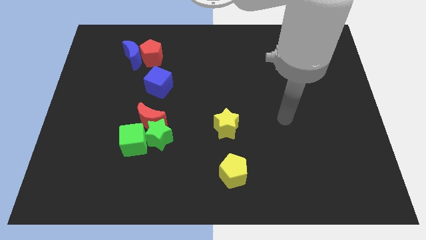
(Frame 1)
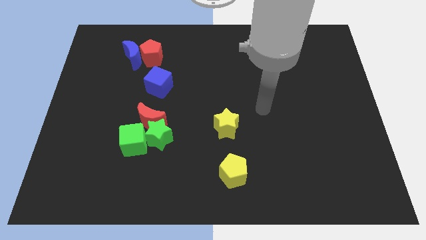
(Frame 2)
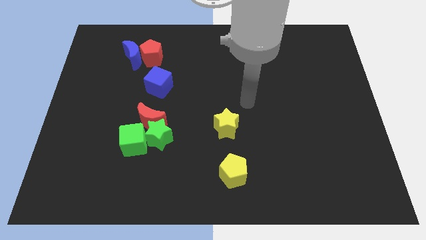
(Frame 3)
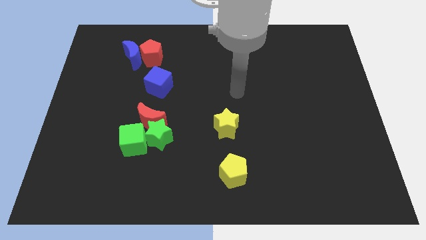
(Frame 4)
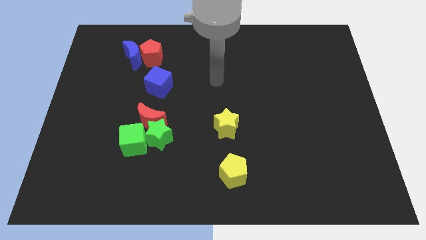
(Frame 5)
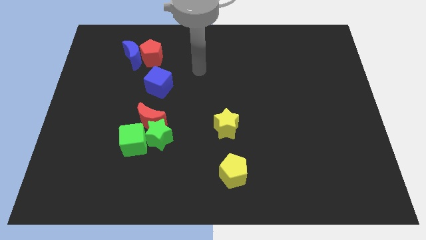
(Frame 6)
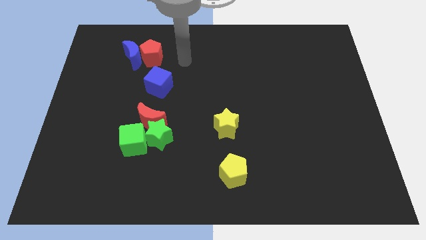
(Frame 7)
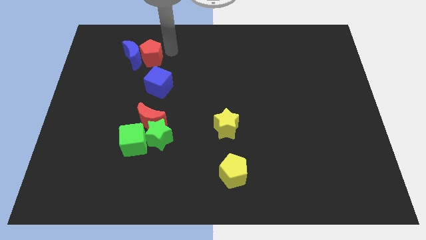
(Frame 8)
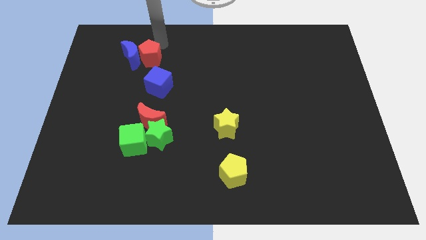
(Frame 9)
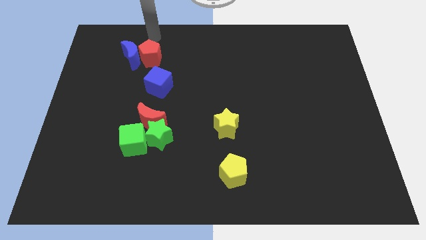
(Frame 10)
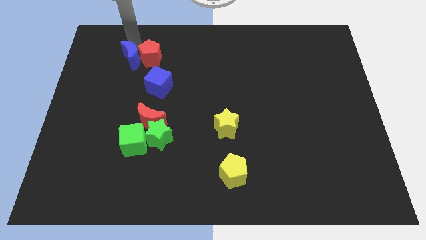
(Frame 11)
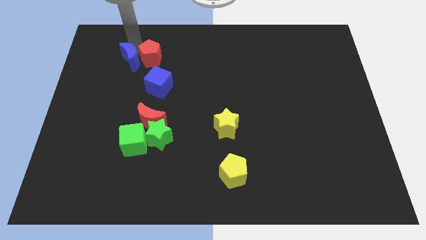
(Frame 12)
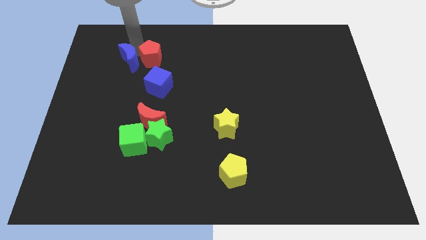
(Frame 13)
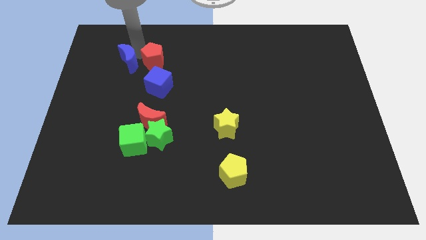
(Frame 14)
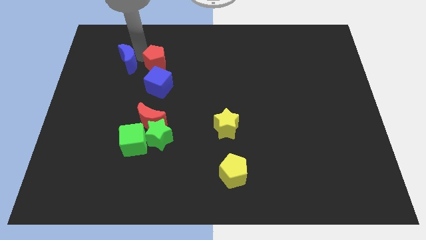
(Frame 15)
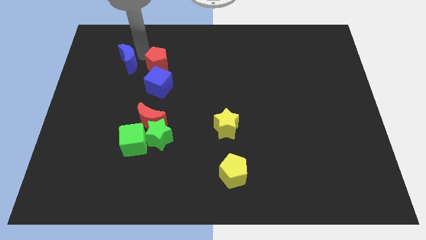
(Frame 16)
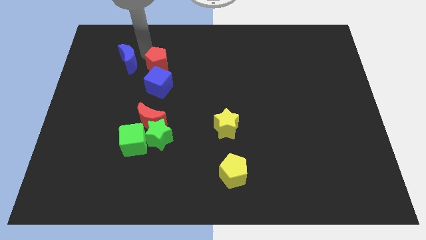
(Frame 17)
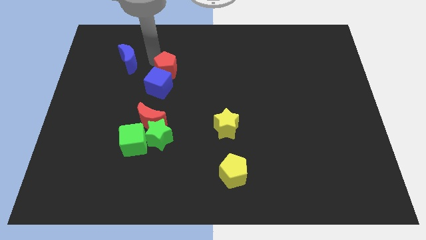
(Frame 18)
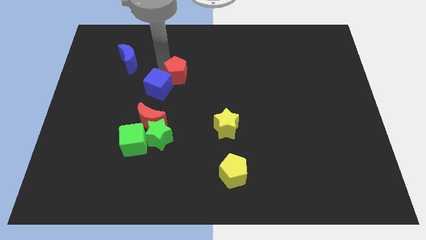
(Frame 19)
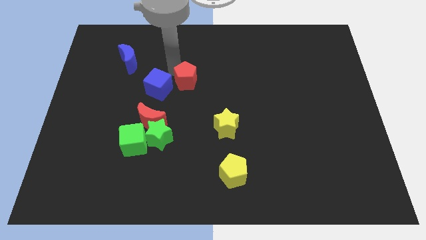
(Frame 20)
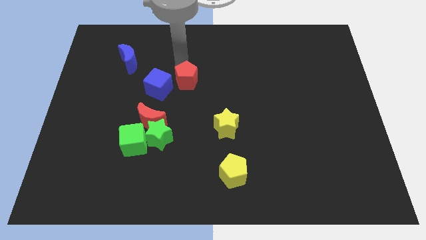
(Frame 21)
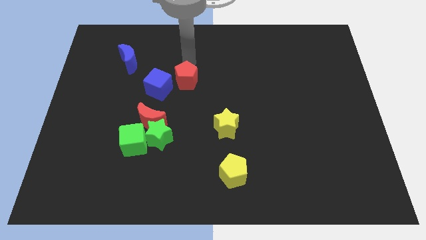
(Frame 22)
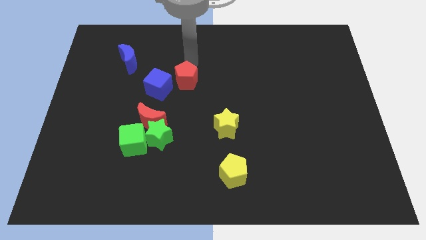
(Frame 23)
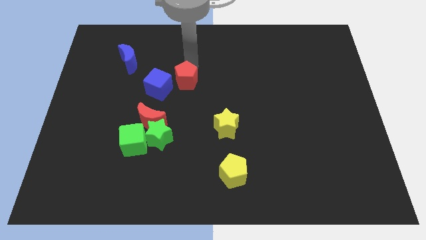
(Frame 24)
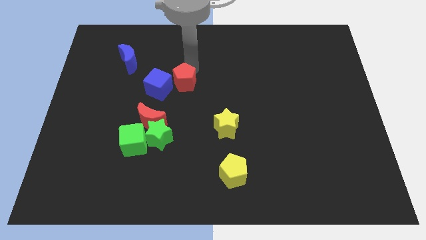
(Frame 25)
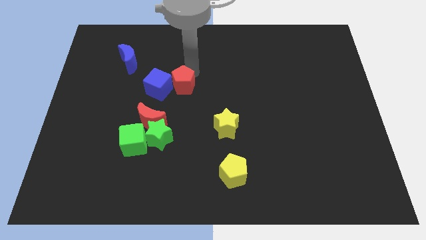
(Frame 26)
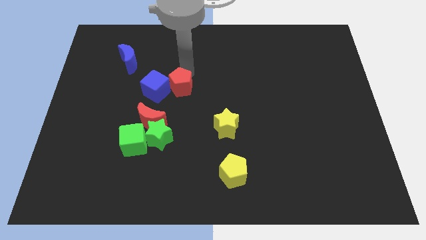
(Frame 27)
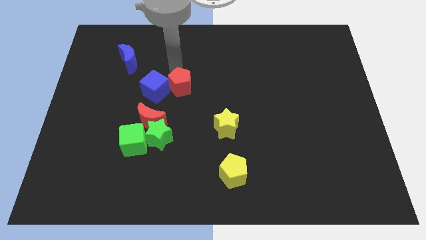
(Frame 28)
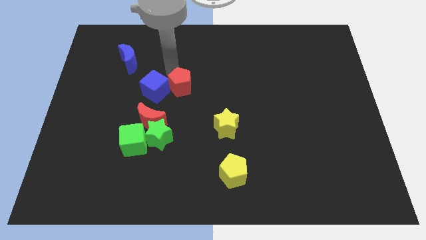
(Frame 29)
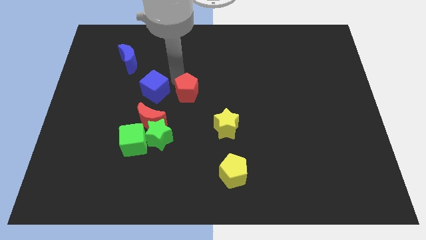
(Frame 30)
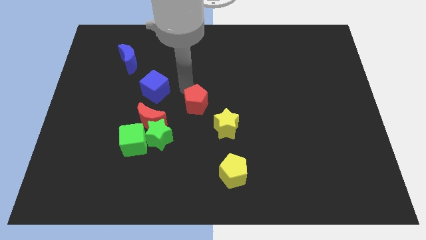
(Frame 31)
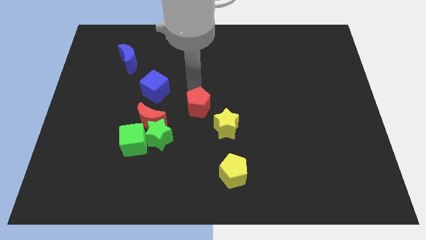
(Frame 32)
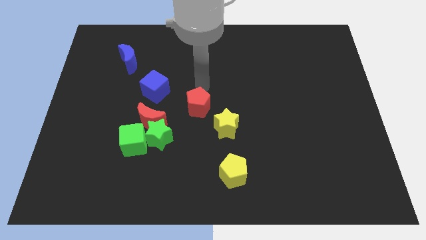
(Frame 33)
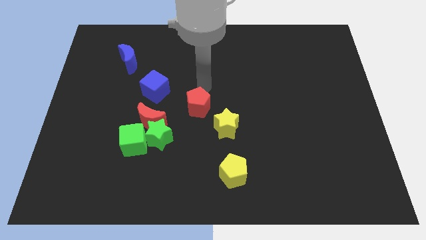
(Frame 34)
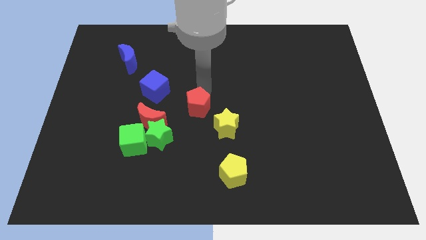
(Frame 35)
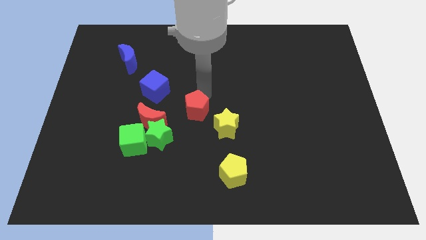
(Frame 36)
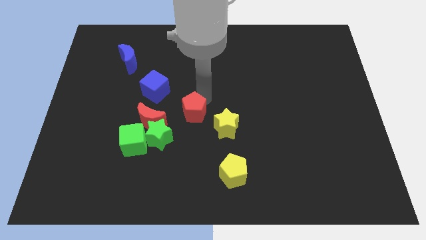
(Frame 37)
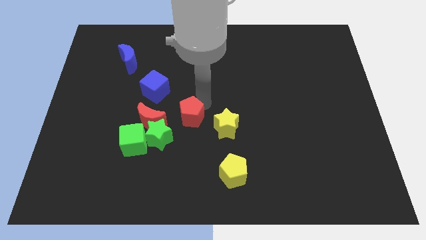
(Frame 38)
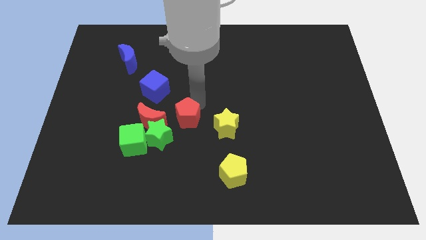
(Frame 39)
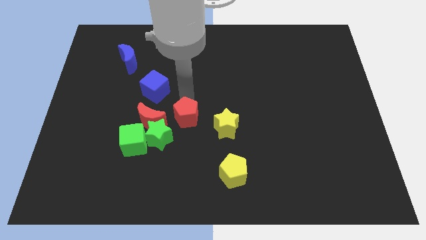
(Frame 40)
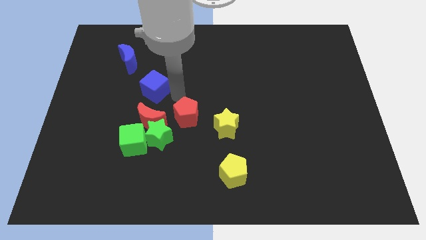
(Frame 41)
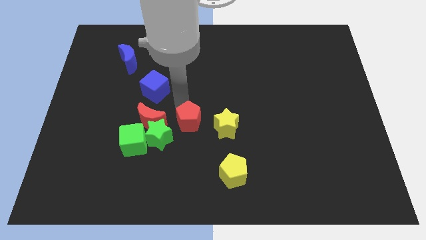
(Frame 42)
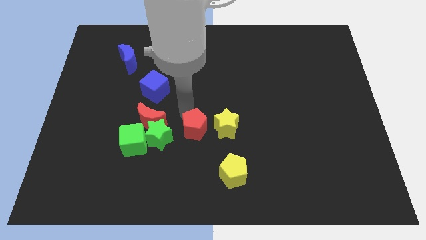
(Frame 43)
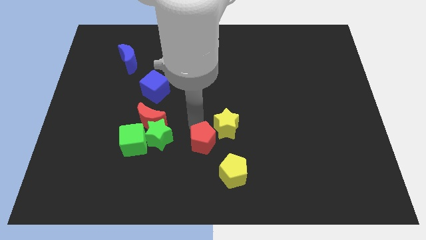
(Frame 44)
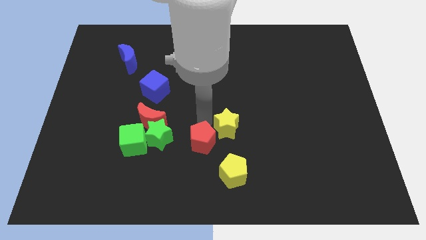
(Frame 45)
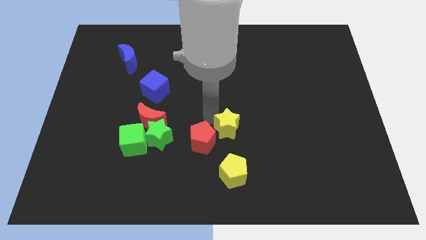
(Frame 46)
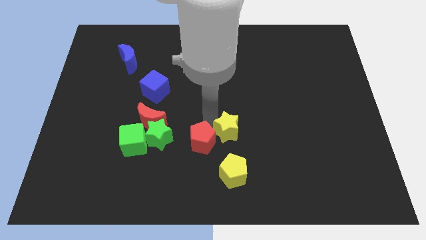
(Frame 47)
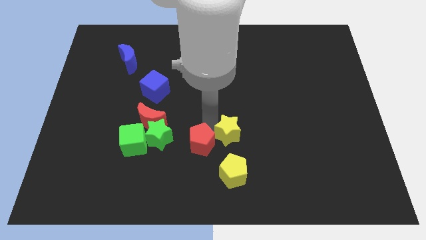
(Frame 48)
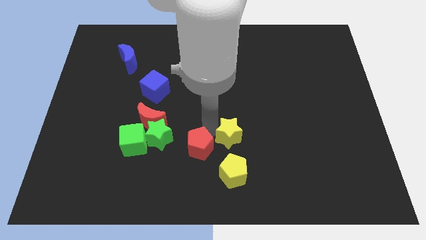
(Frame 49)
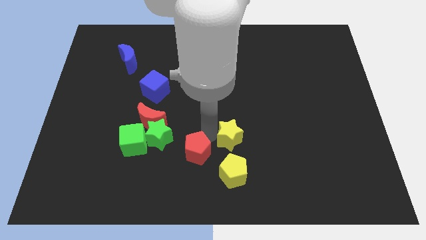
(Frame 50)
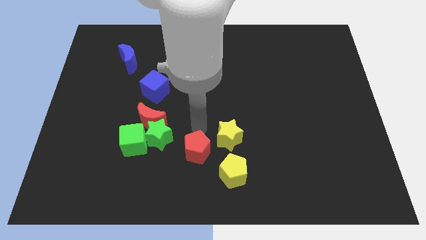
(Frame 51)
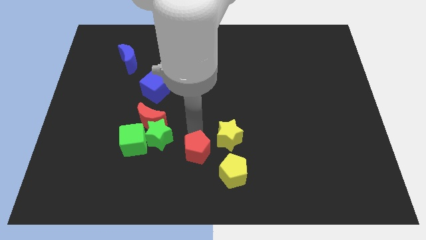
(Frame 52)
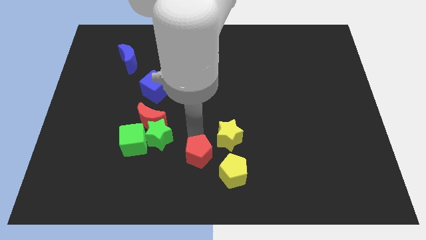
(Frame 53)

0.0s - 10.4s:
put the red pentagon to the bottom side

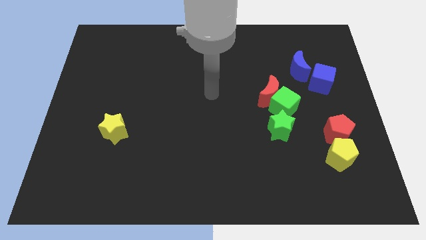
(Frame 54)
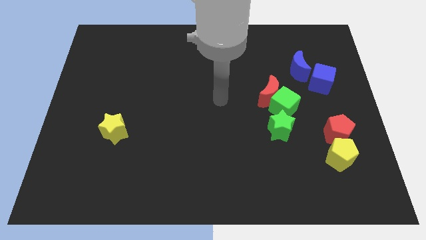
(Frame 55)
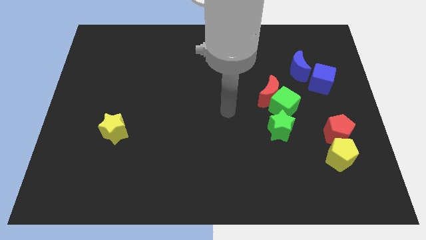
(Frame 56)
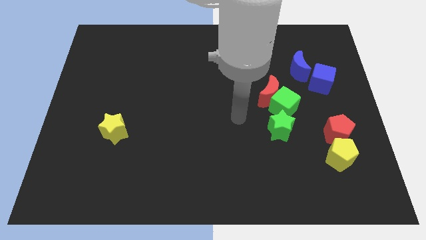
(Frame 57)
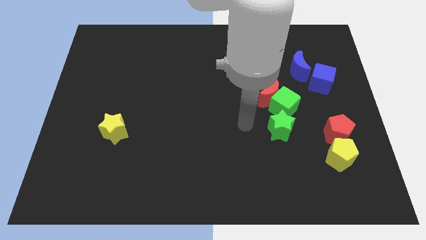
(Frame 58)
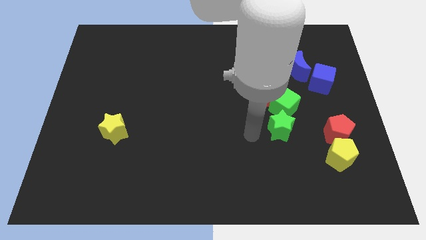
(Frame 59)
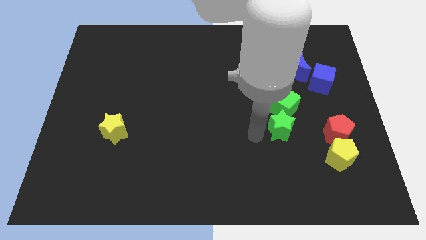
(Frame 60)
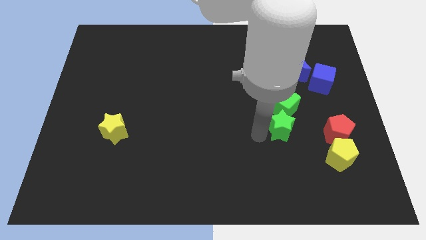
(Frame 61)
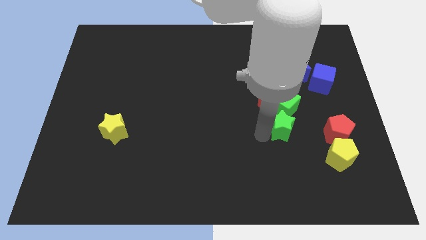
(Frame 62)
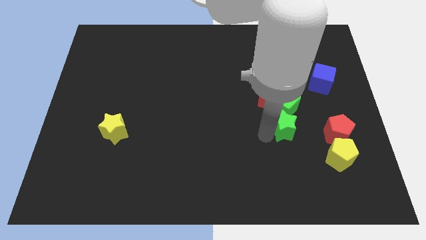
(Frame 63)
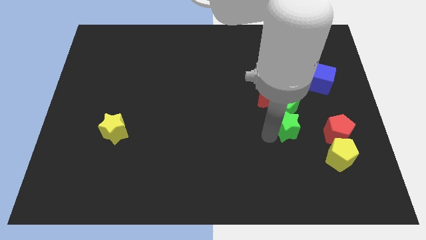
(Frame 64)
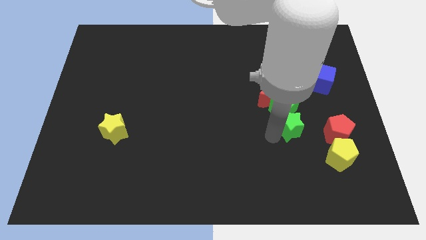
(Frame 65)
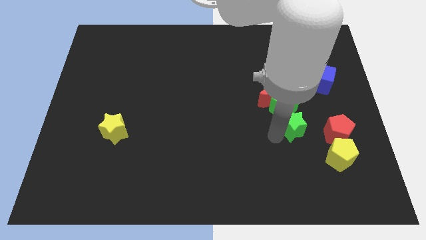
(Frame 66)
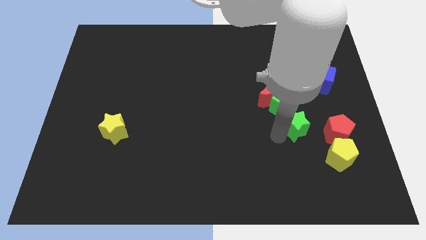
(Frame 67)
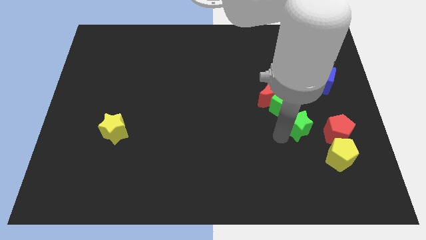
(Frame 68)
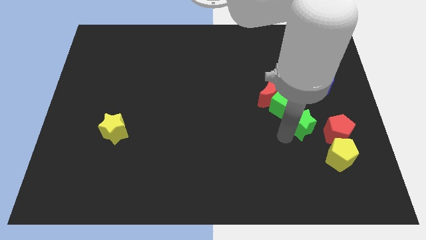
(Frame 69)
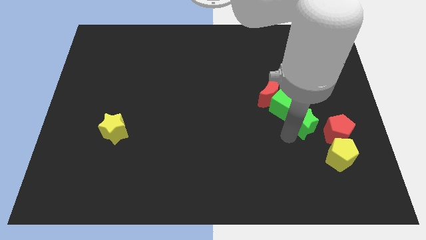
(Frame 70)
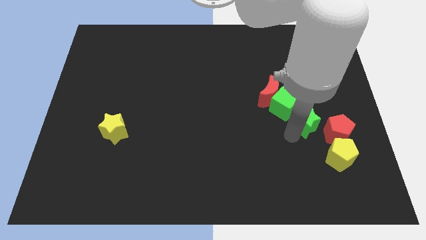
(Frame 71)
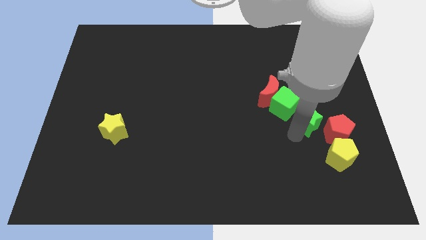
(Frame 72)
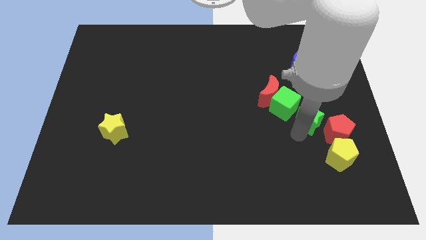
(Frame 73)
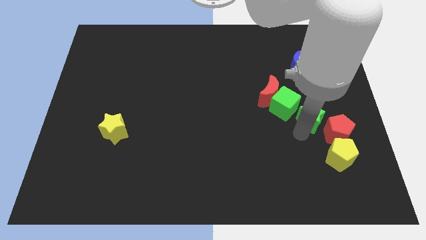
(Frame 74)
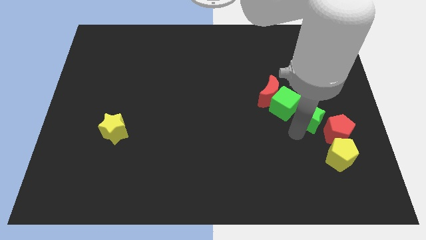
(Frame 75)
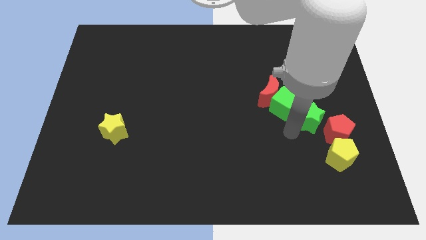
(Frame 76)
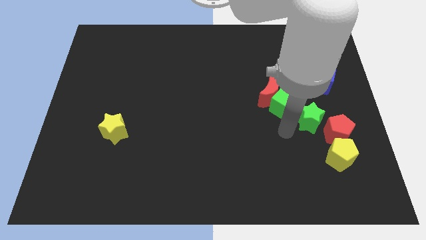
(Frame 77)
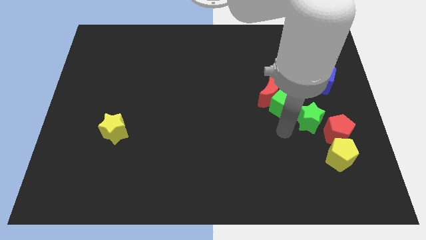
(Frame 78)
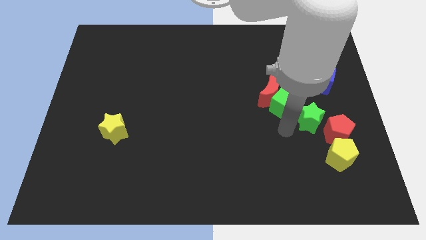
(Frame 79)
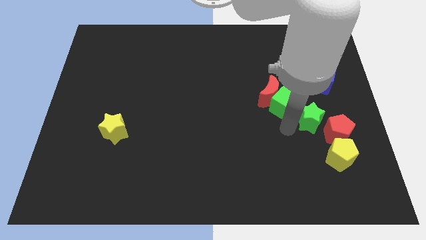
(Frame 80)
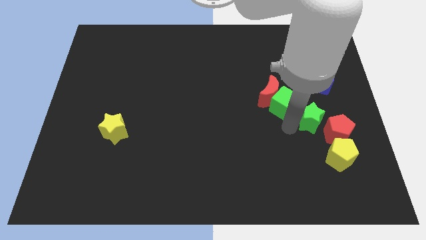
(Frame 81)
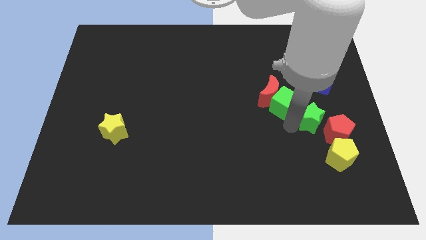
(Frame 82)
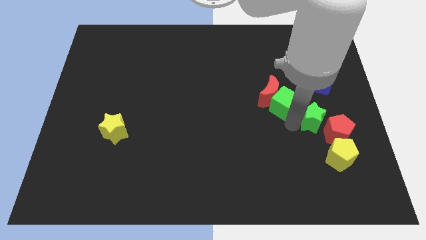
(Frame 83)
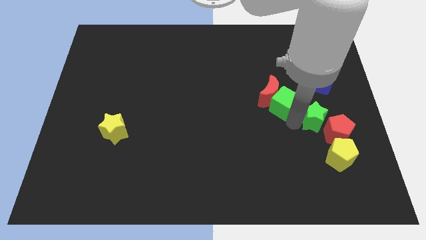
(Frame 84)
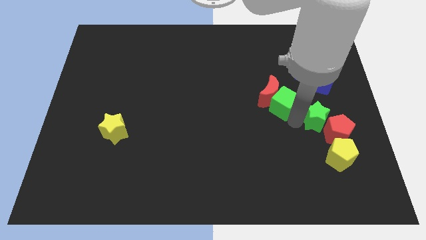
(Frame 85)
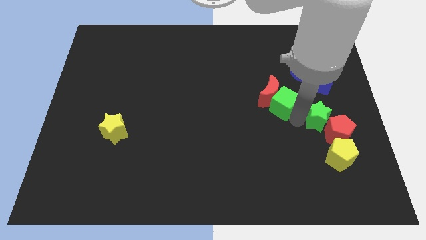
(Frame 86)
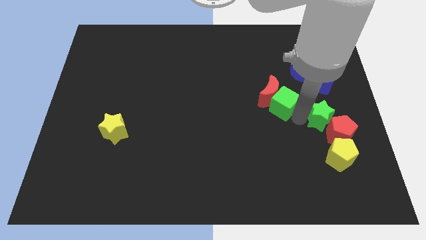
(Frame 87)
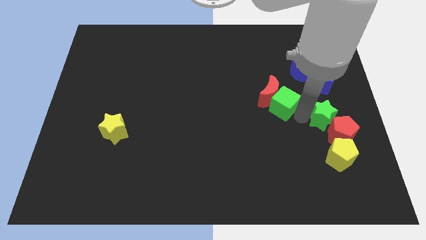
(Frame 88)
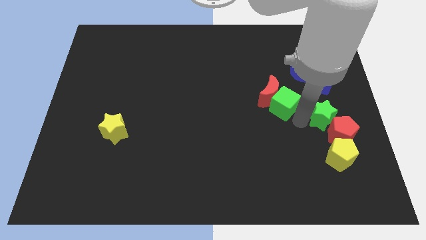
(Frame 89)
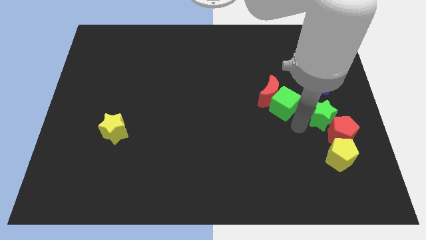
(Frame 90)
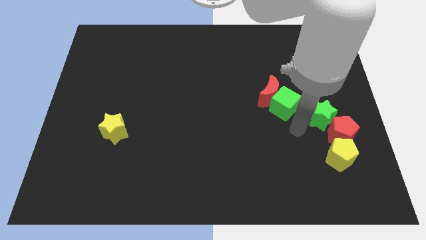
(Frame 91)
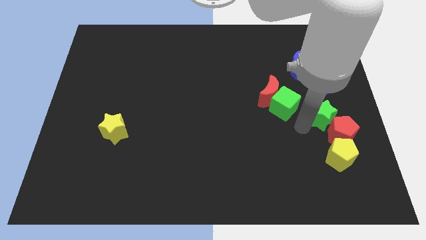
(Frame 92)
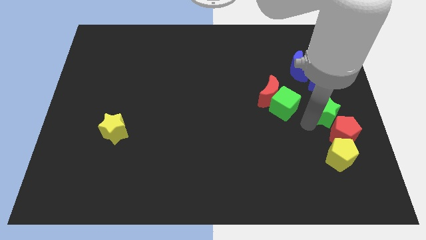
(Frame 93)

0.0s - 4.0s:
slide the green star to the right side
